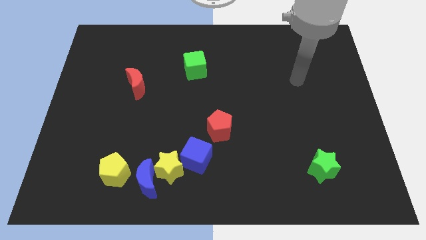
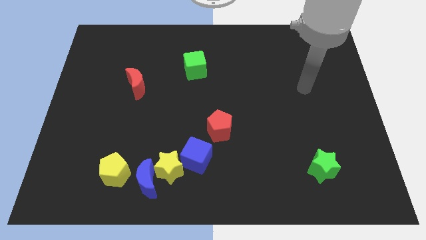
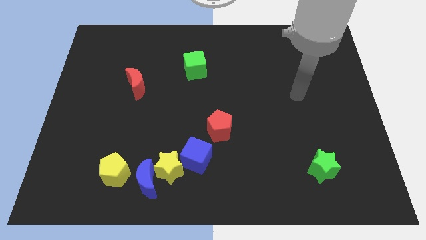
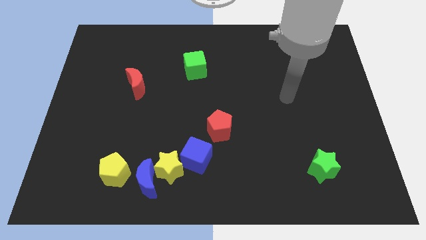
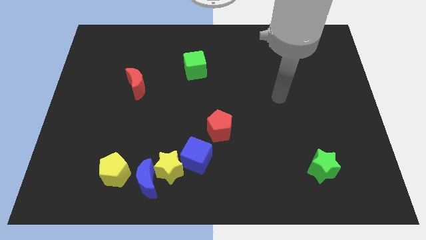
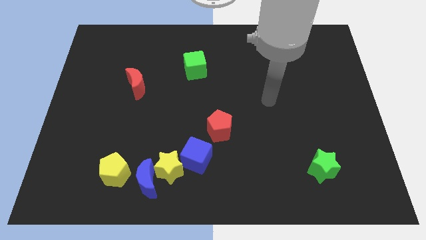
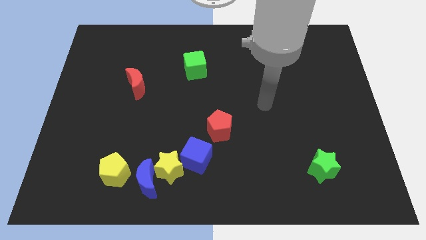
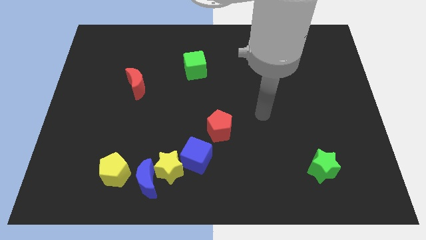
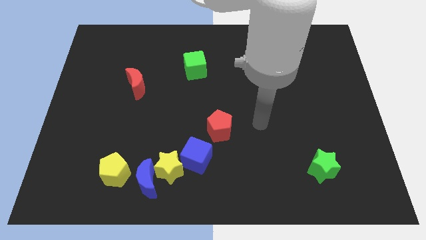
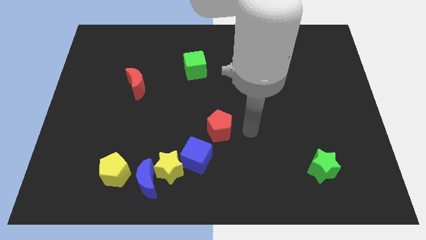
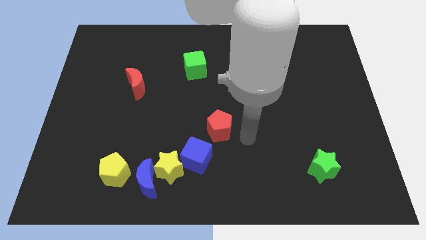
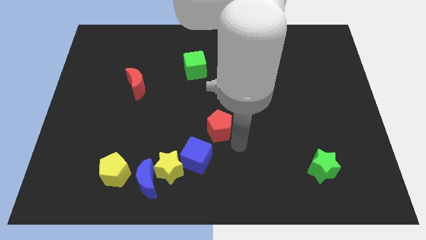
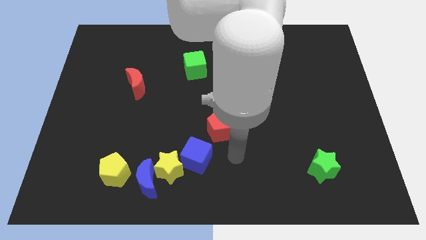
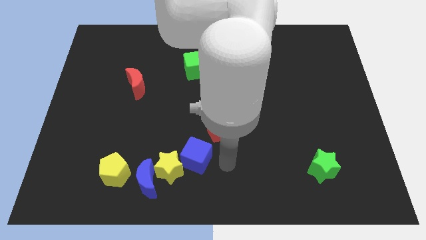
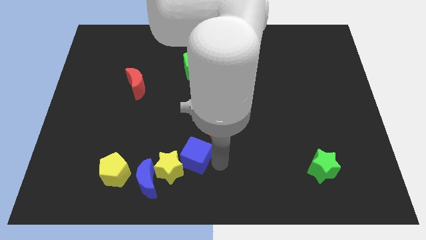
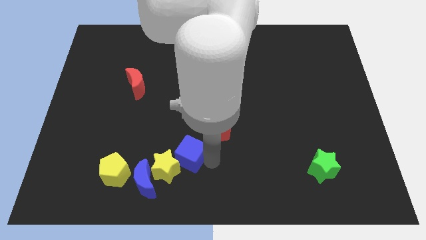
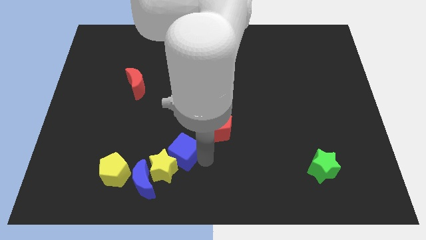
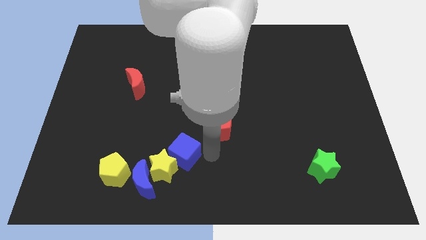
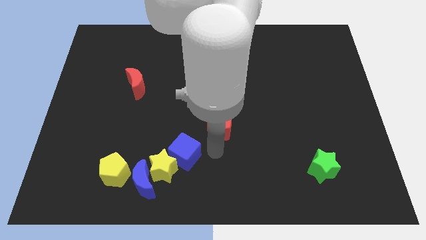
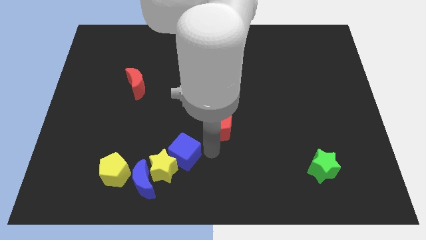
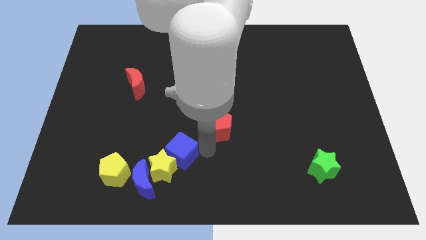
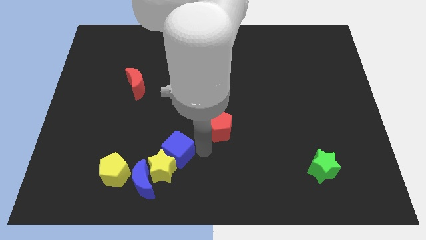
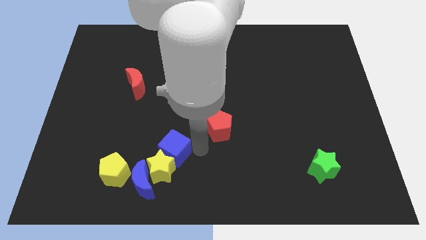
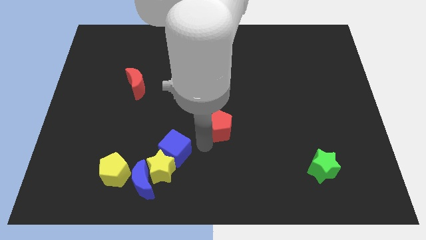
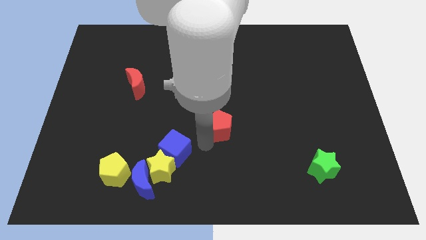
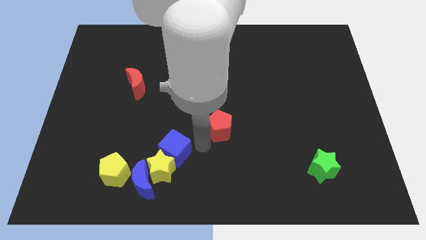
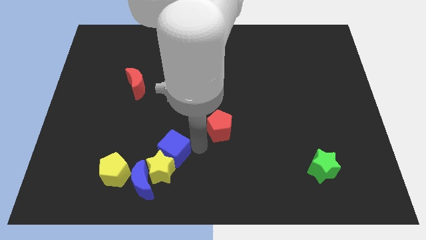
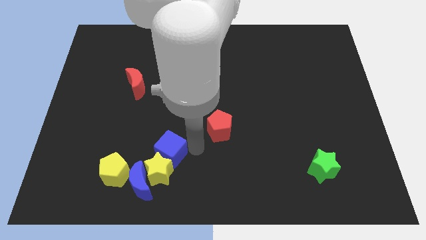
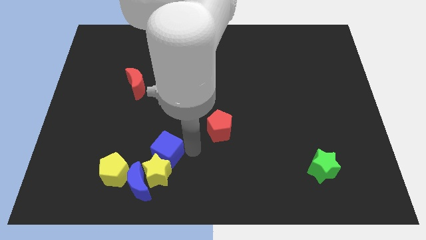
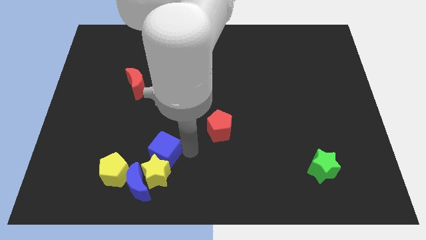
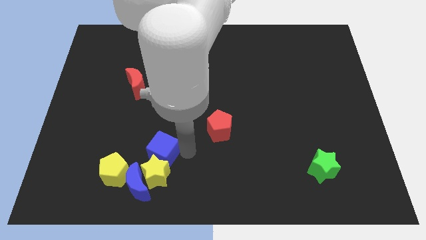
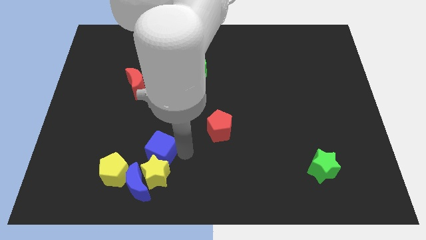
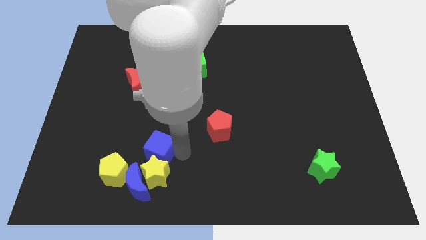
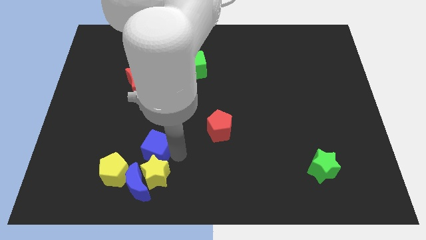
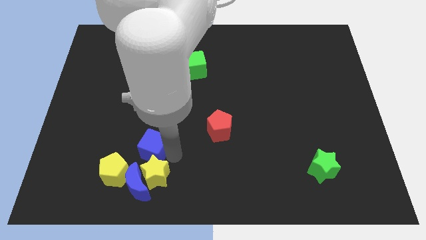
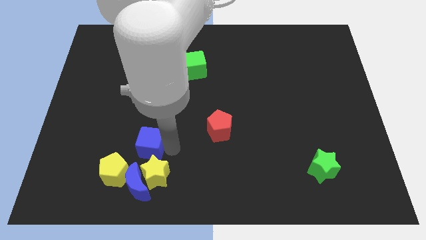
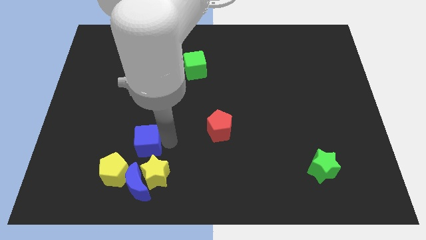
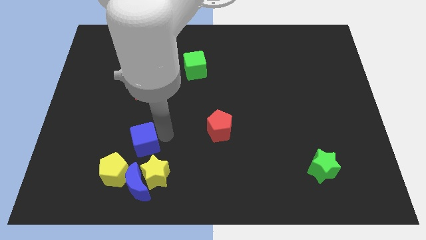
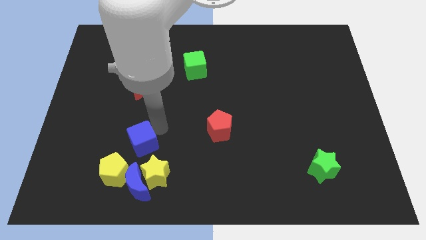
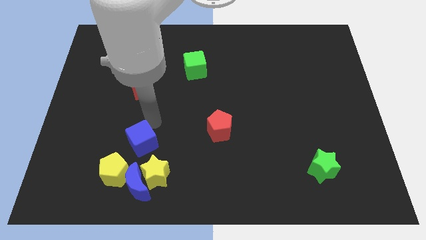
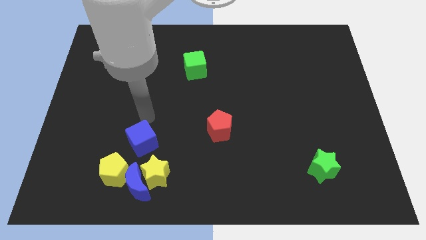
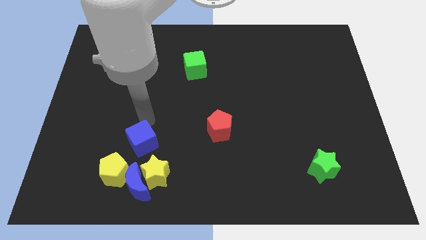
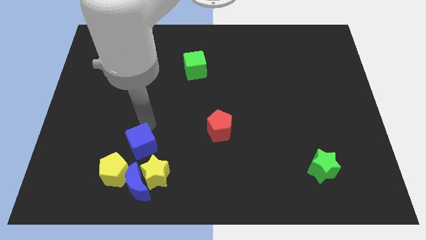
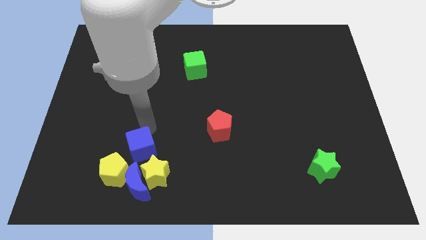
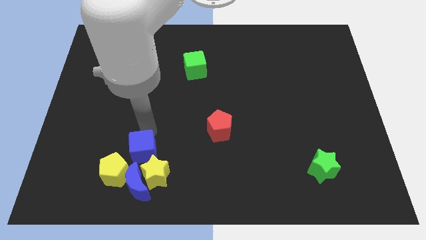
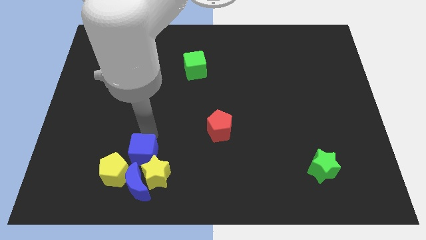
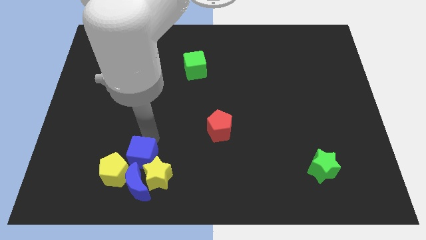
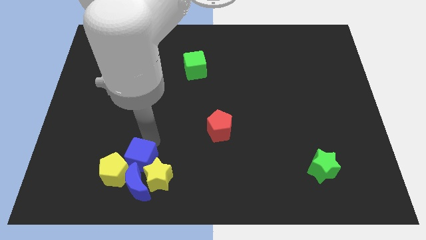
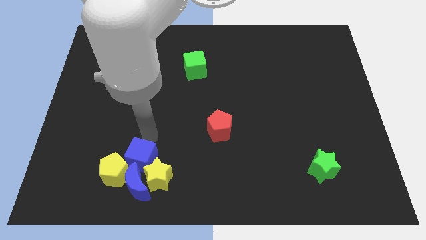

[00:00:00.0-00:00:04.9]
put the blue cube towards the blue moon

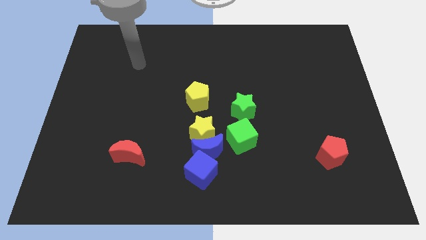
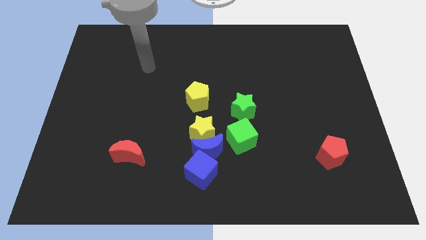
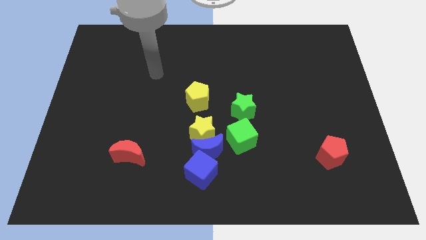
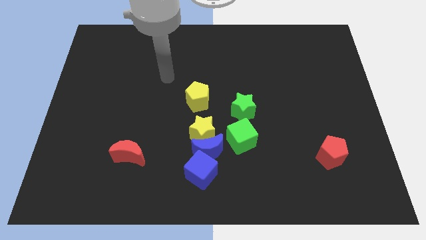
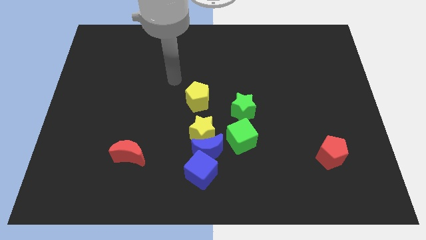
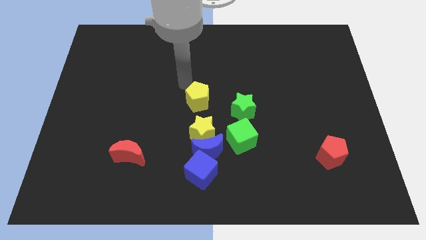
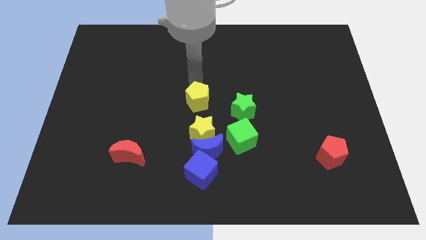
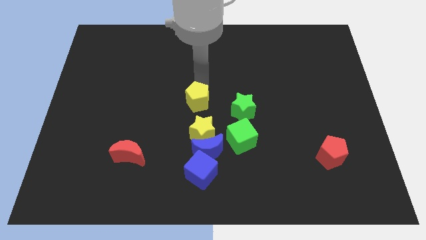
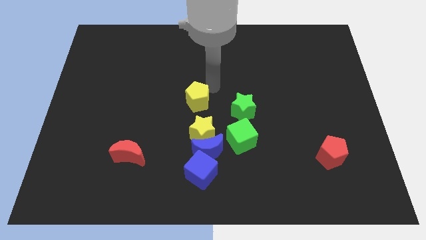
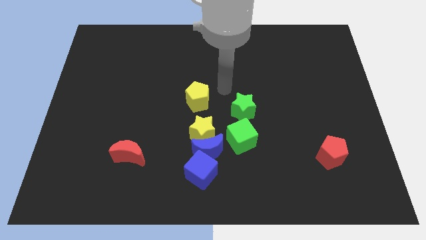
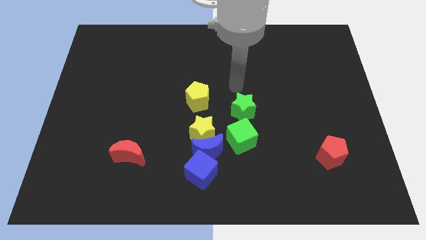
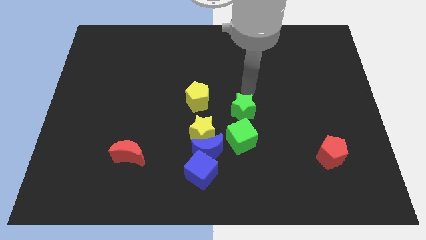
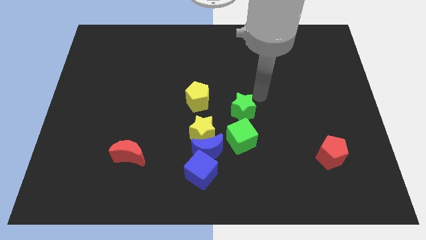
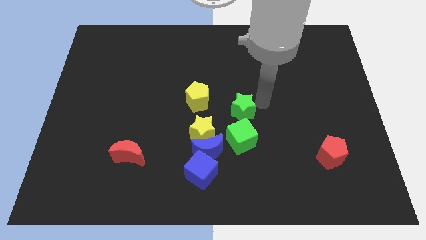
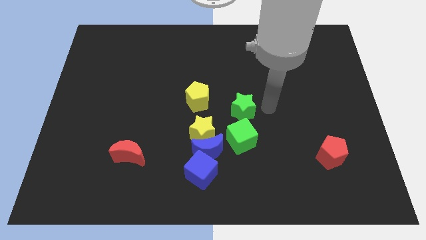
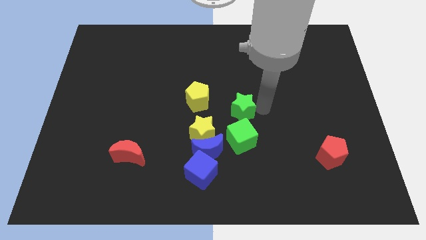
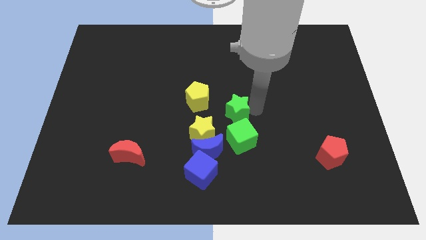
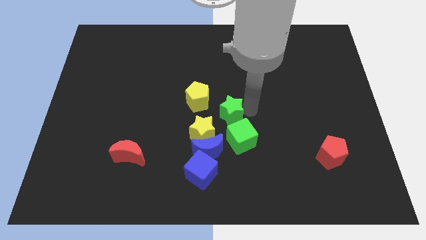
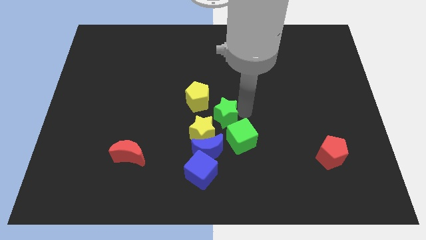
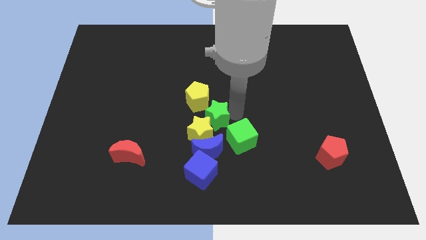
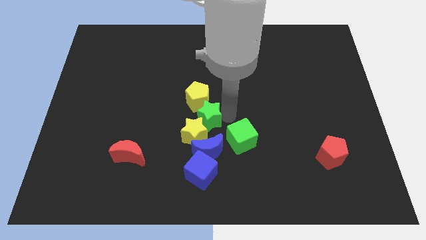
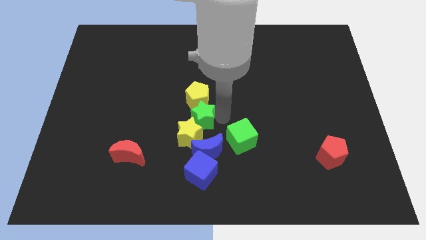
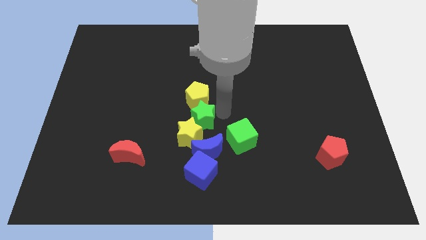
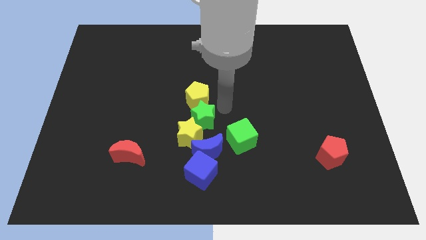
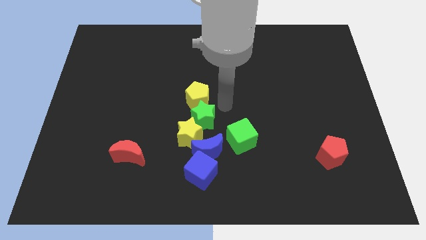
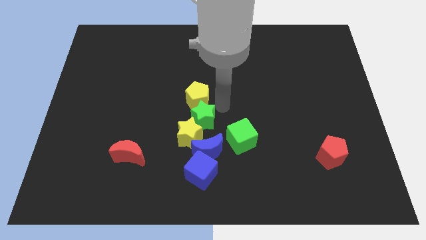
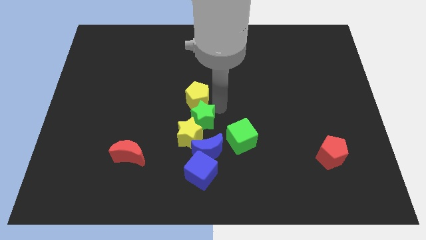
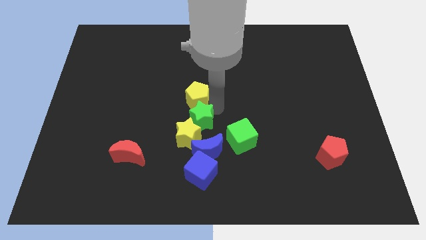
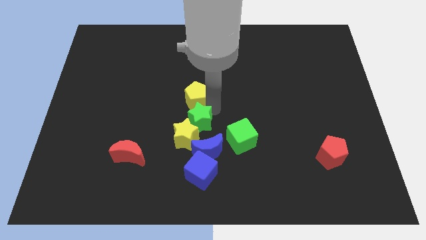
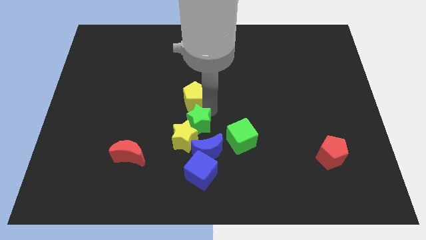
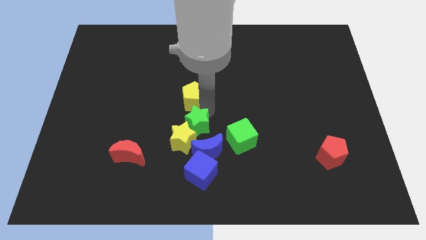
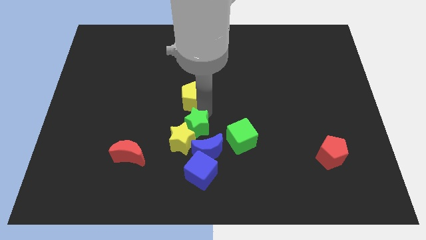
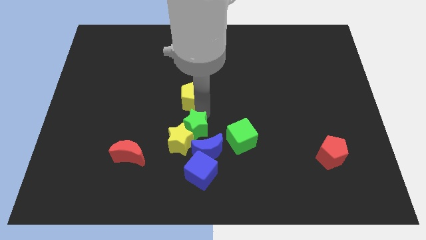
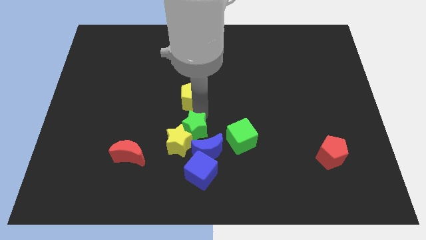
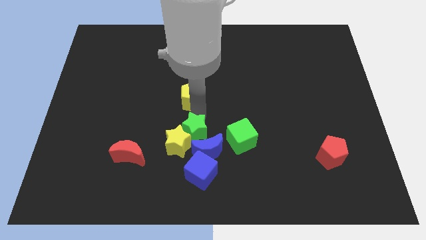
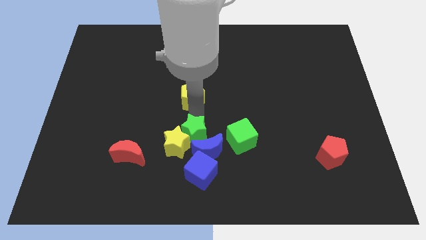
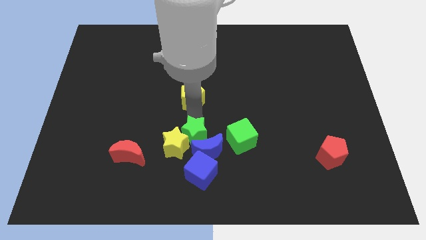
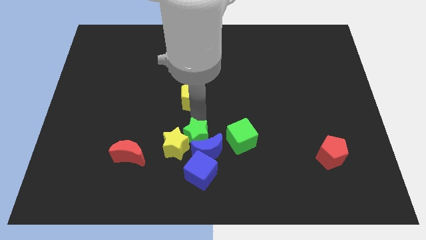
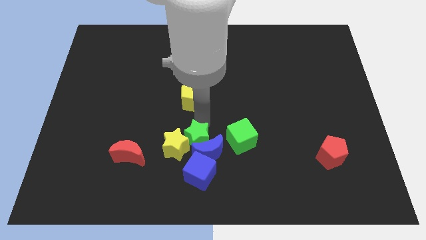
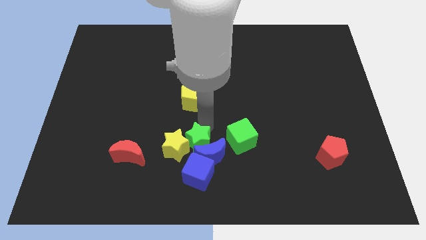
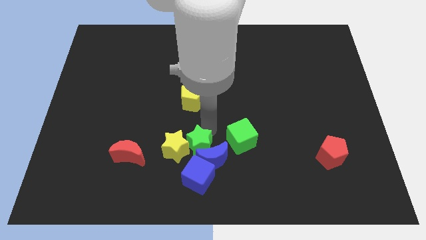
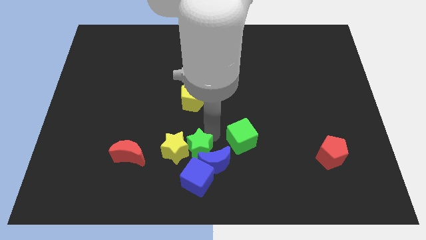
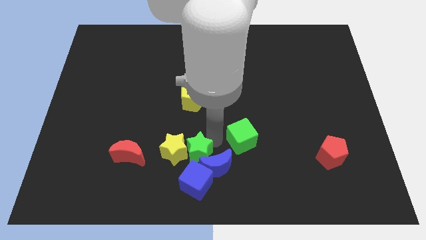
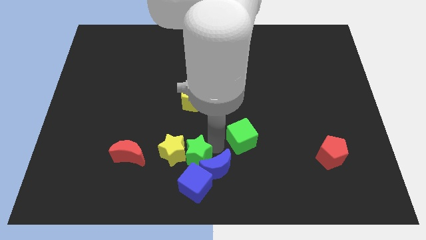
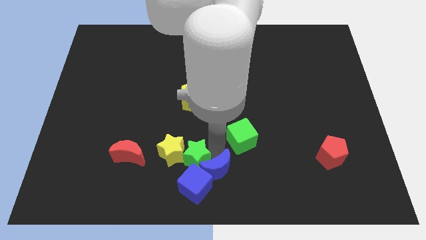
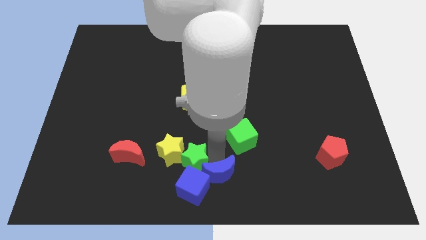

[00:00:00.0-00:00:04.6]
push the green star close to the blue cube
